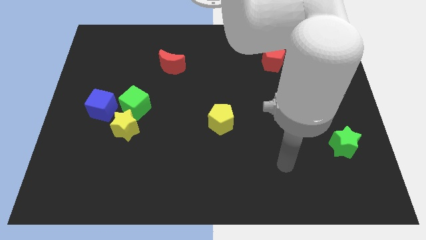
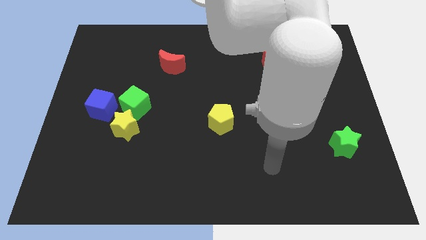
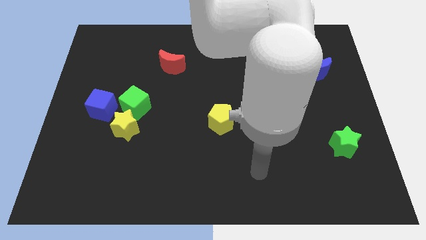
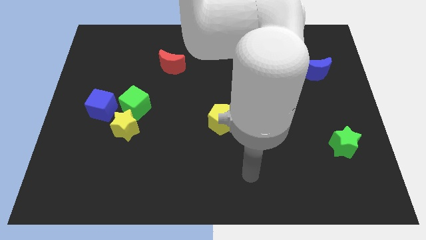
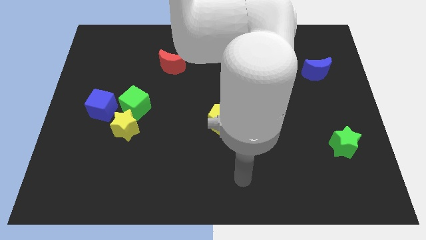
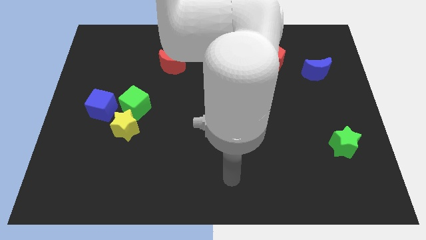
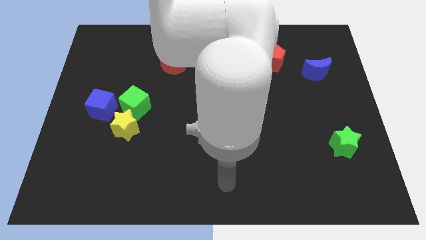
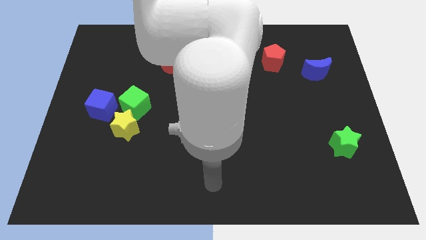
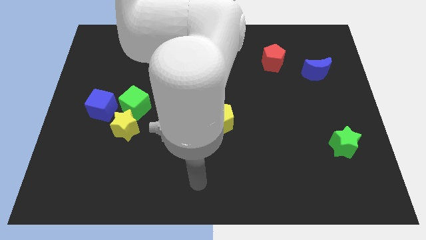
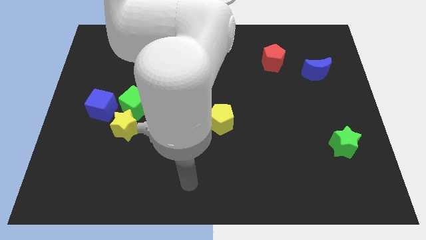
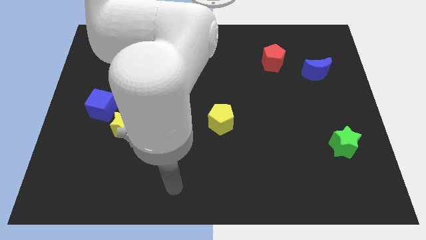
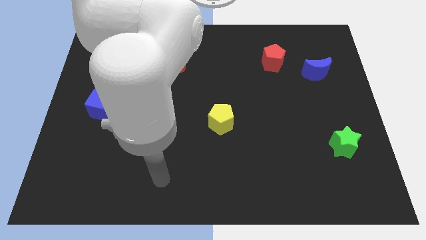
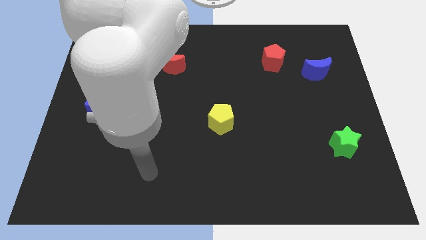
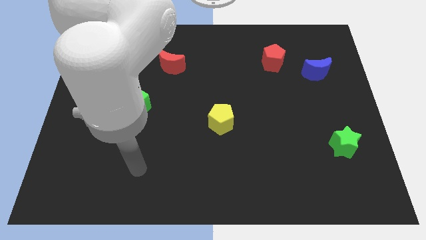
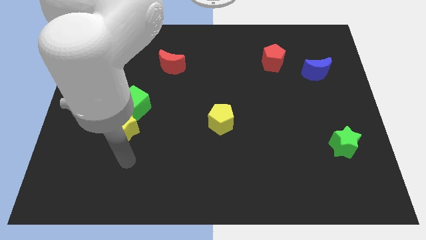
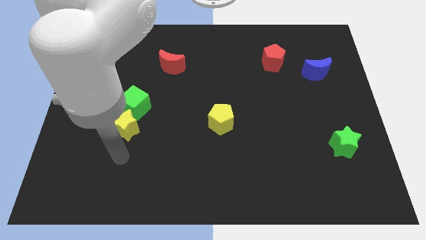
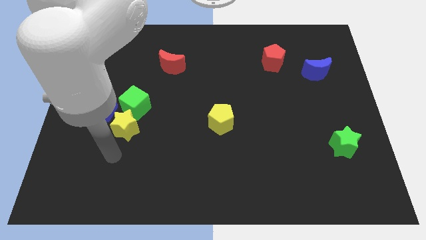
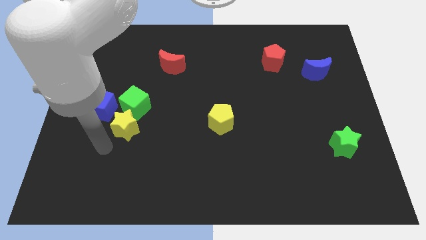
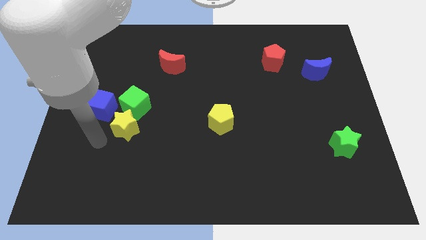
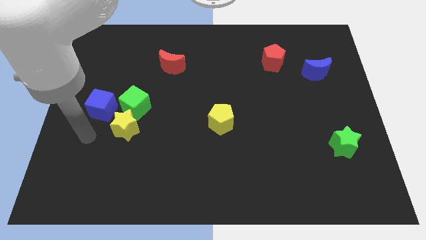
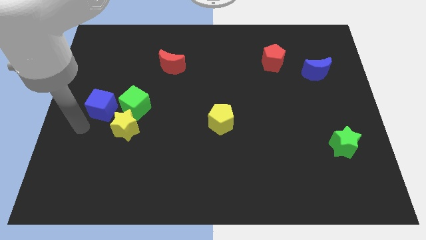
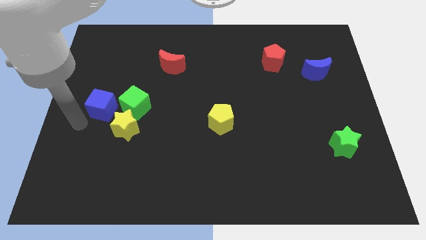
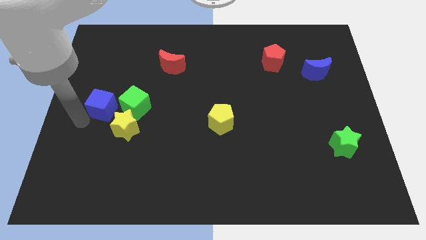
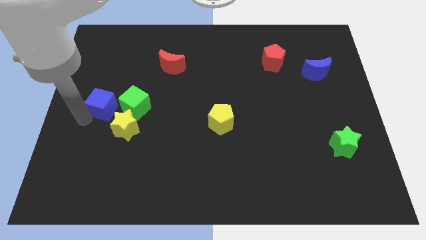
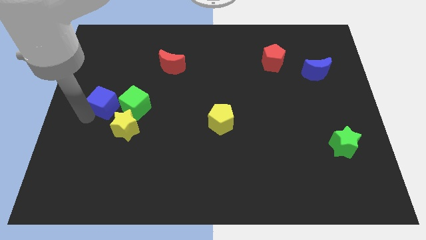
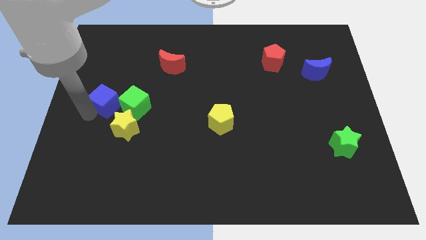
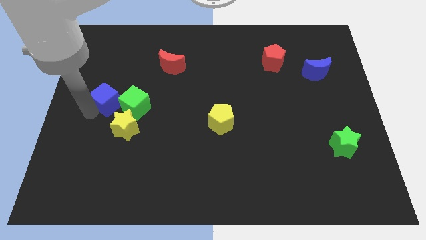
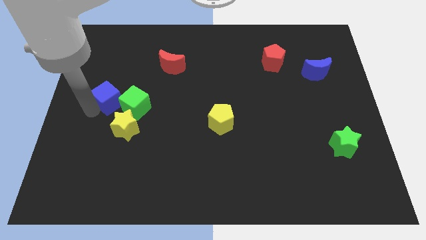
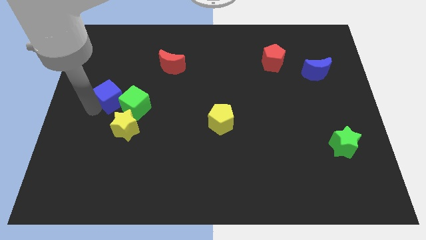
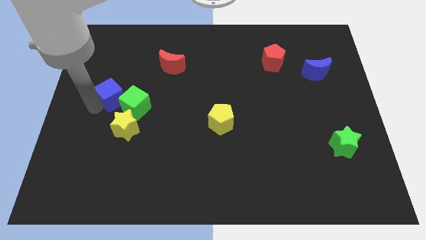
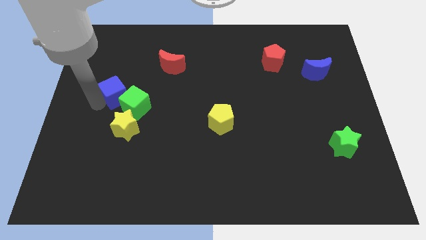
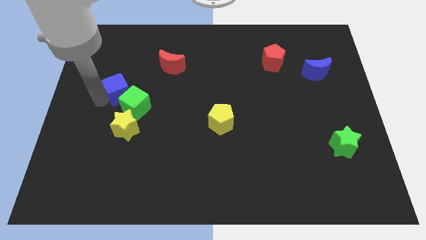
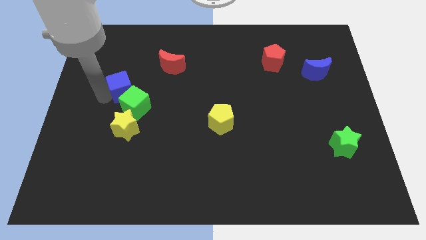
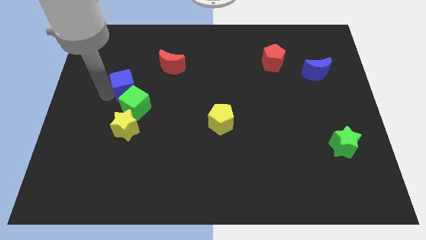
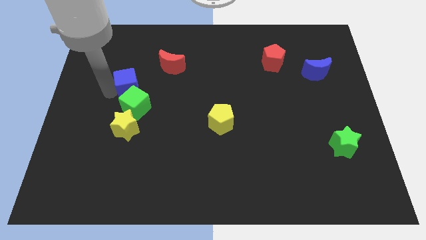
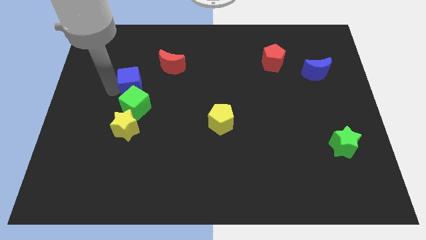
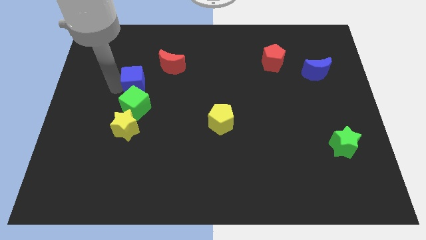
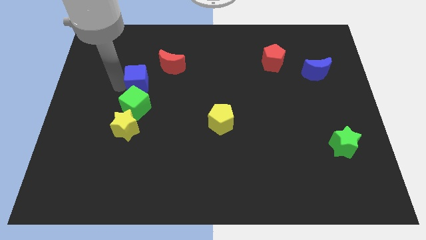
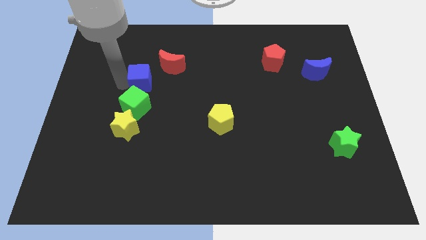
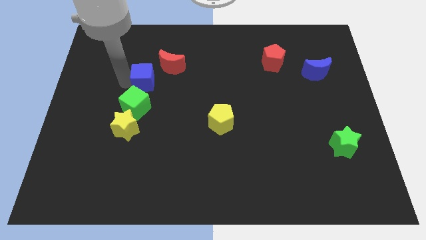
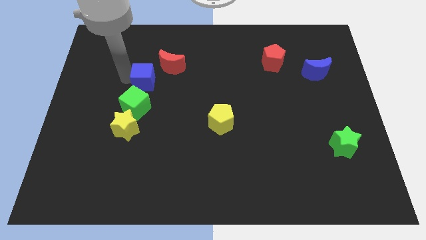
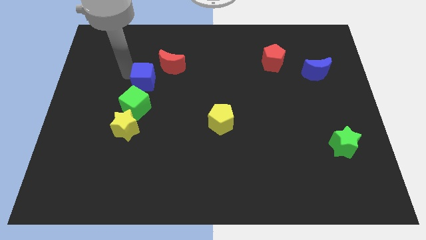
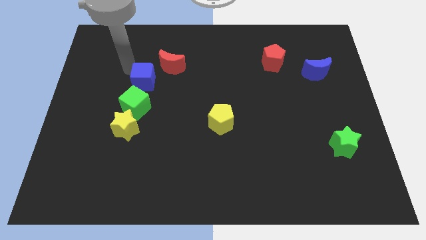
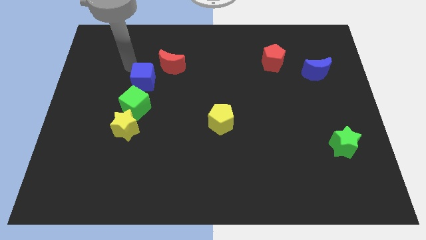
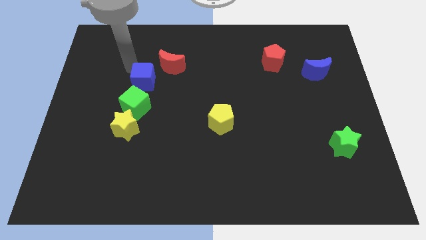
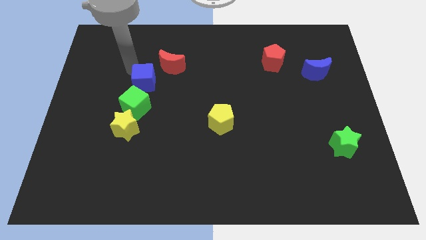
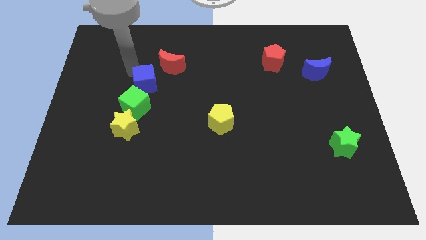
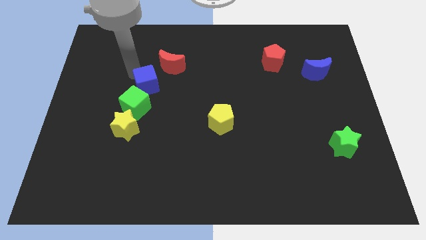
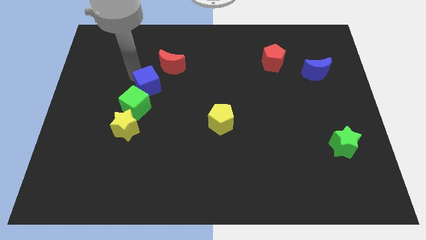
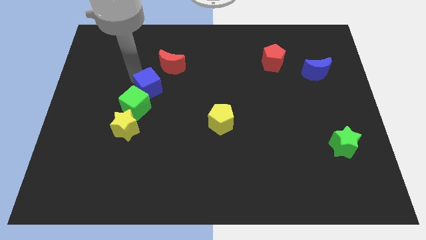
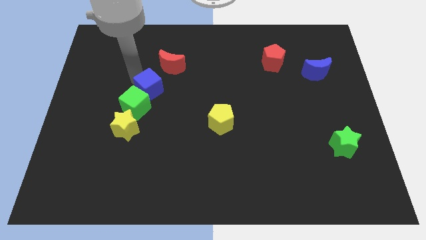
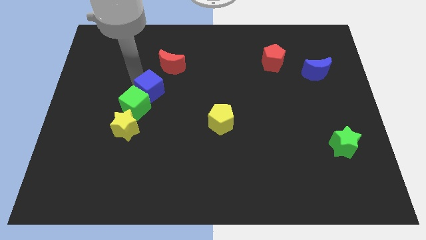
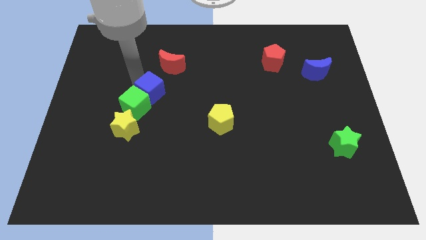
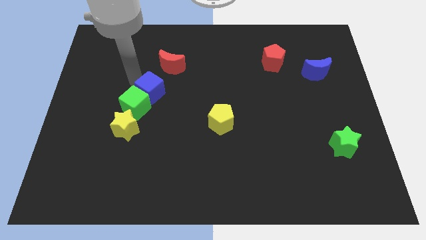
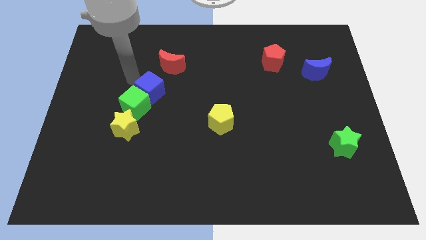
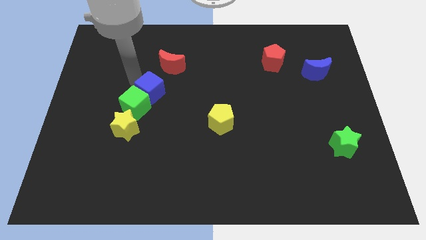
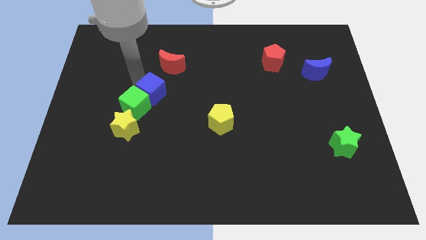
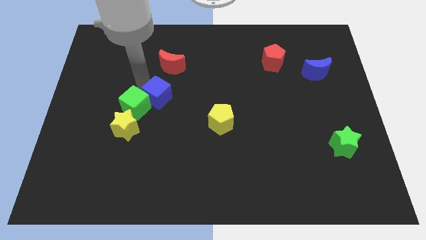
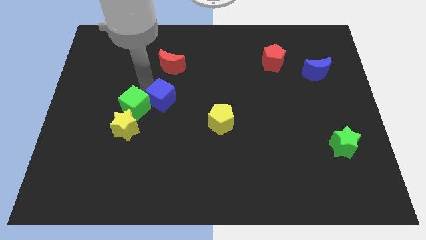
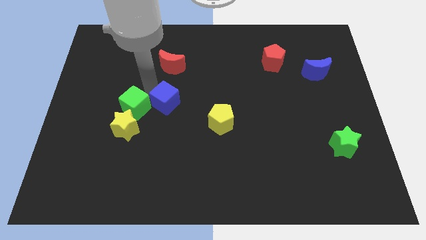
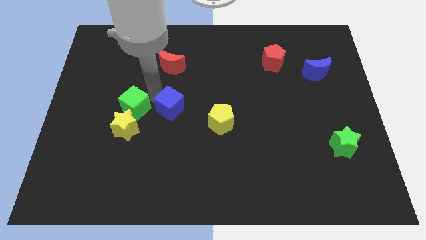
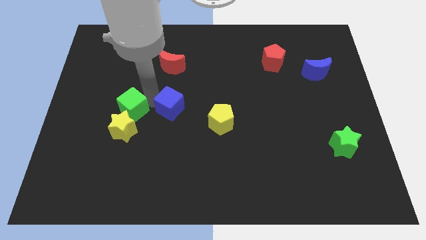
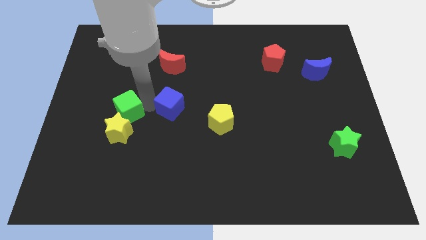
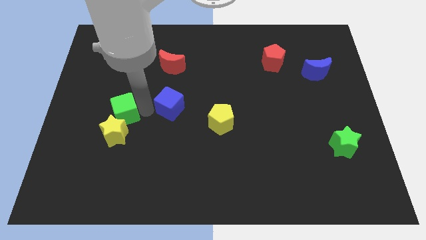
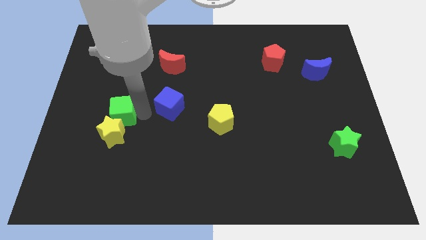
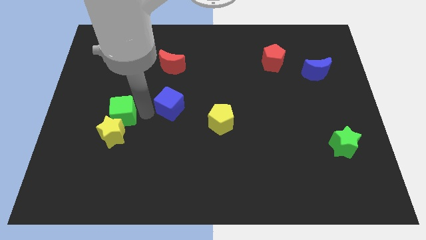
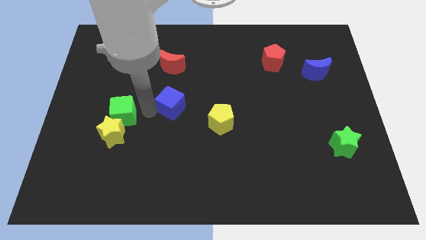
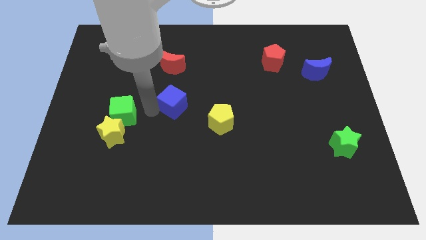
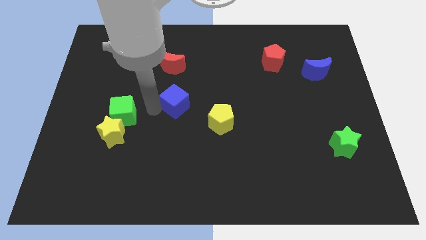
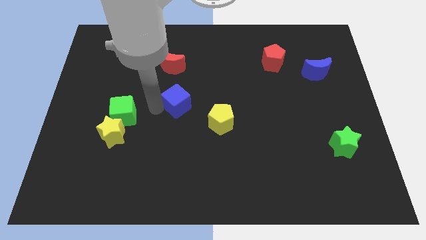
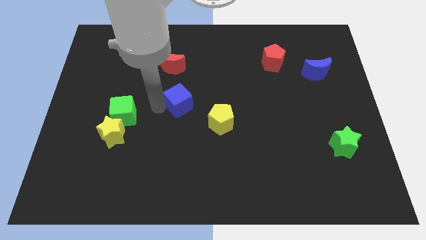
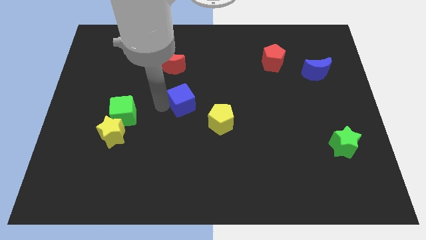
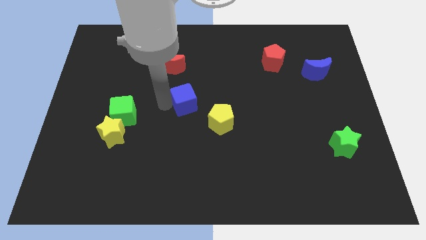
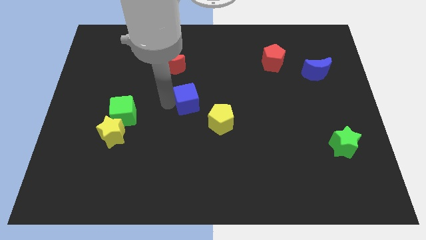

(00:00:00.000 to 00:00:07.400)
slide the blue cube right

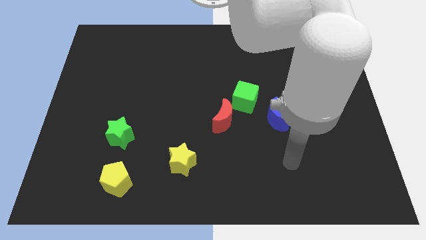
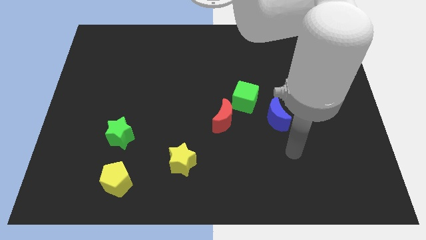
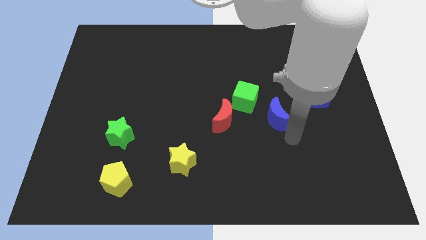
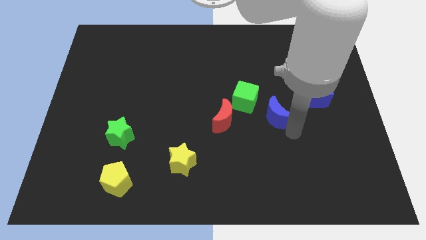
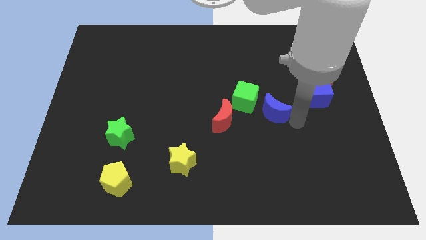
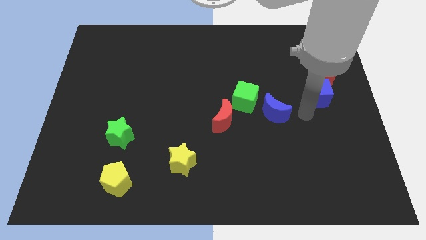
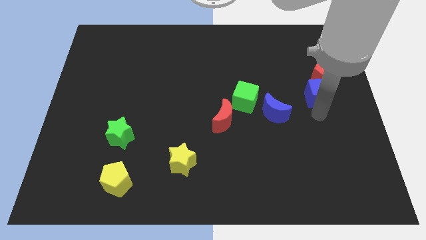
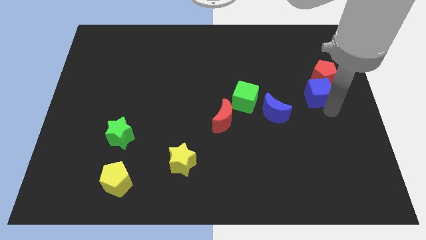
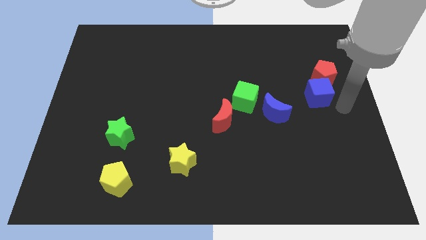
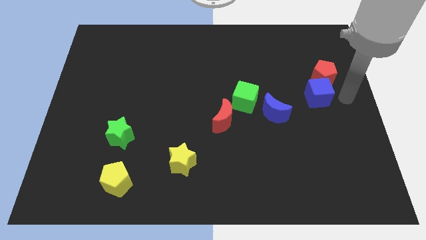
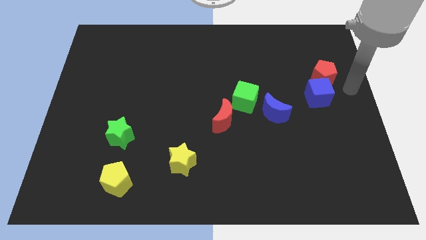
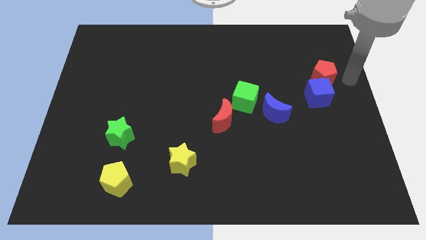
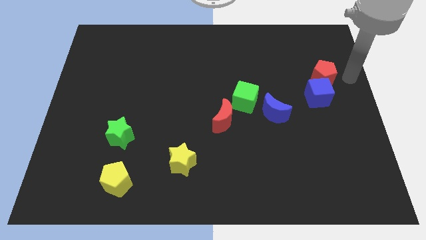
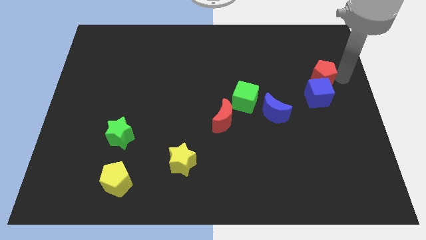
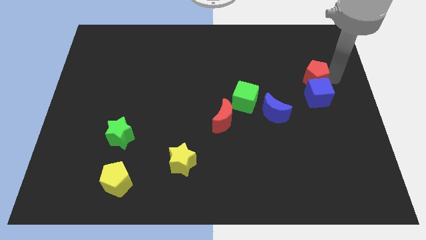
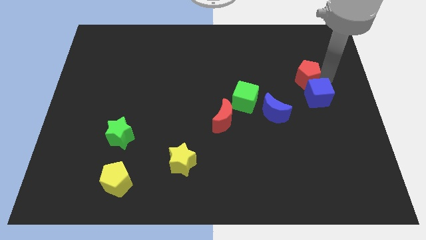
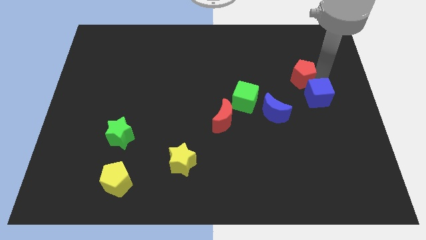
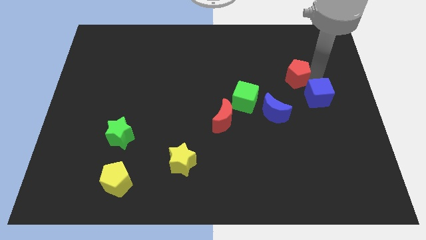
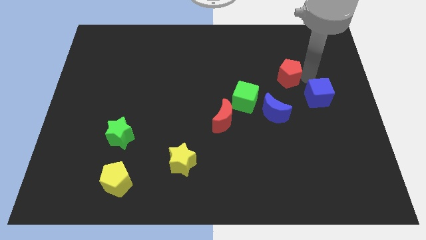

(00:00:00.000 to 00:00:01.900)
push the red pentagon somewhat left
